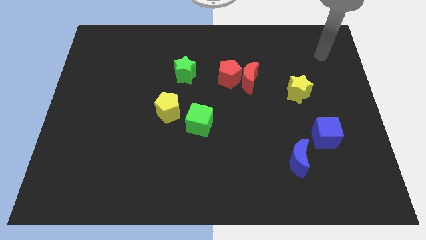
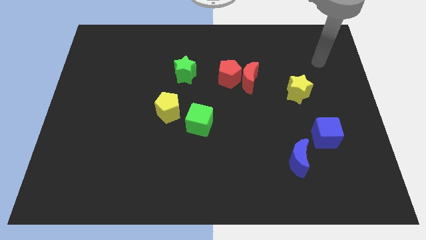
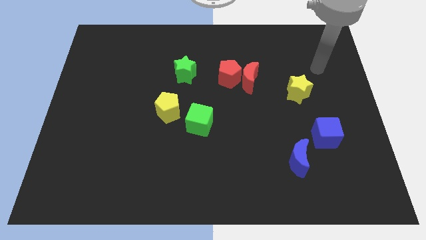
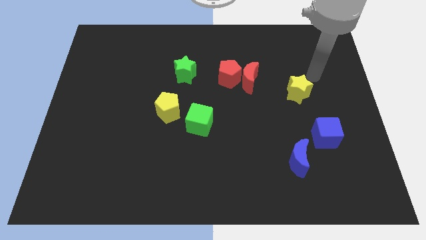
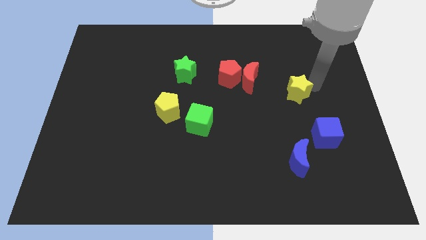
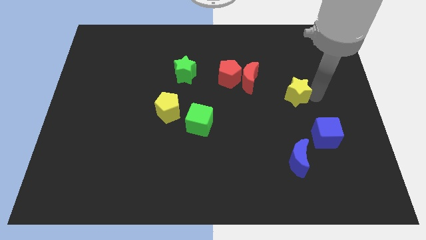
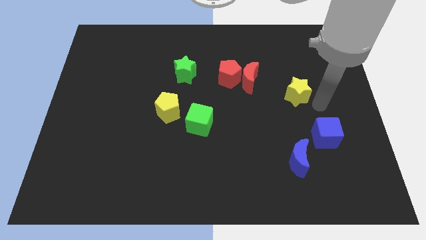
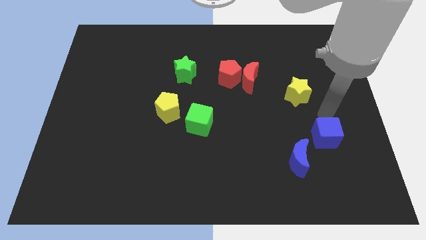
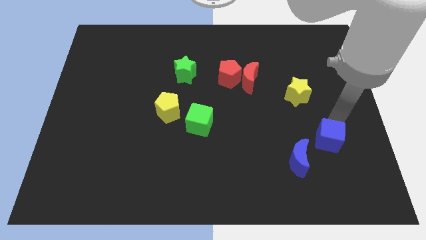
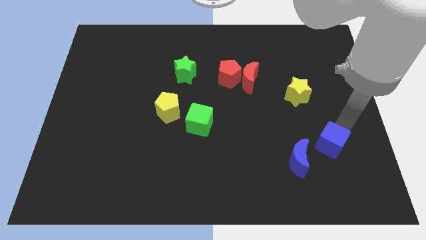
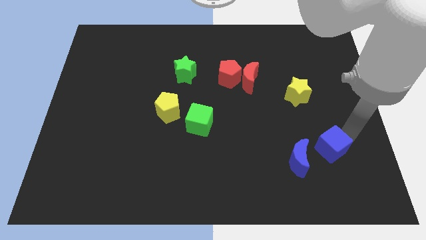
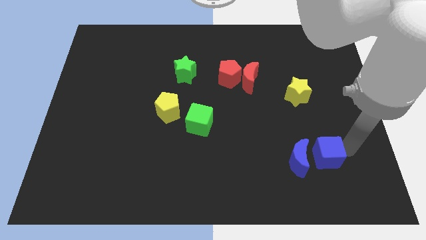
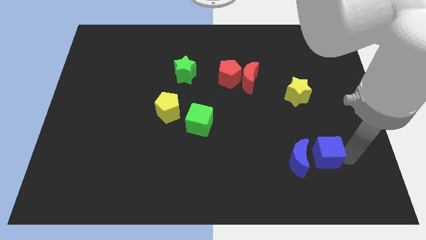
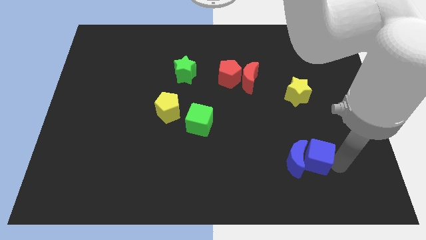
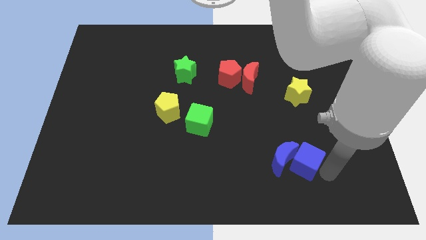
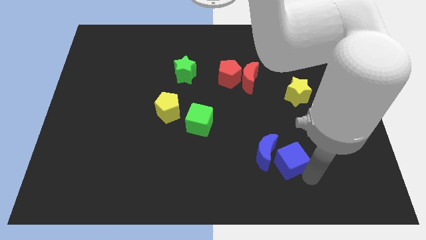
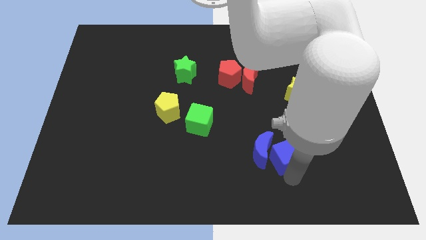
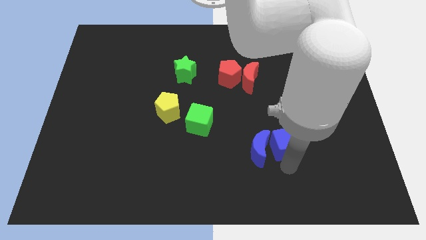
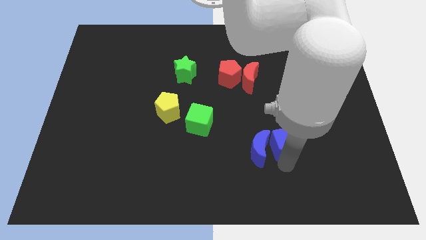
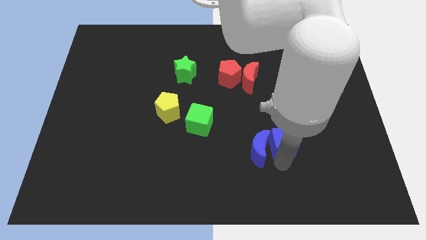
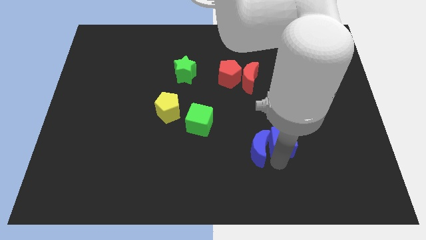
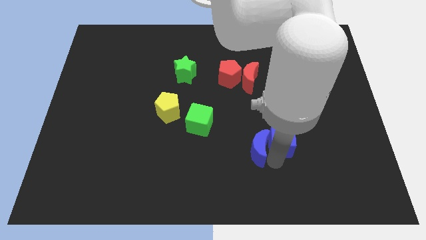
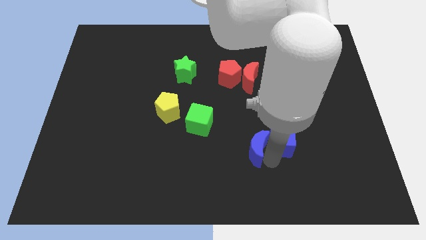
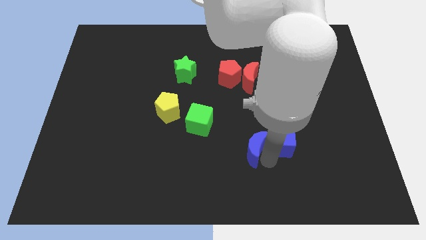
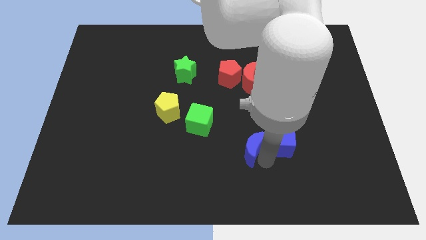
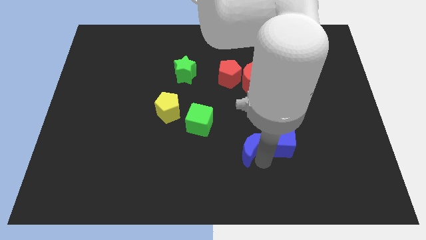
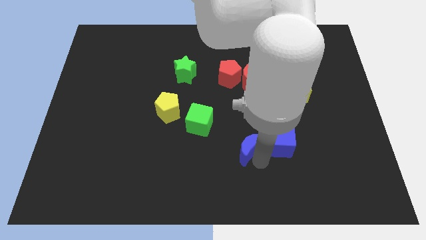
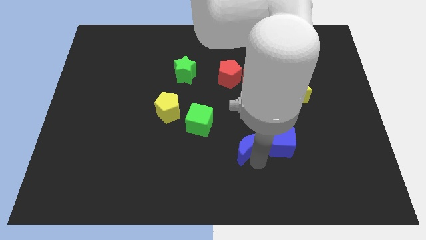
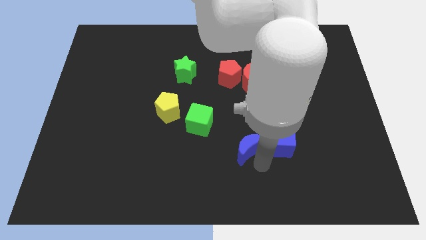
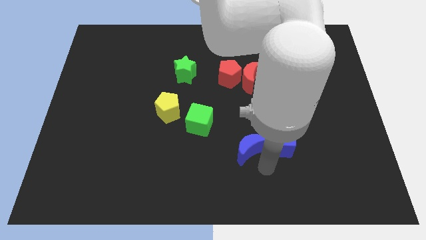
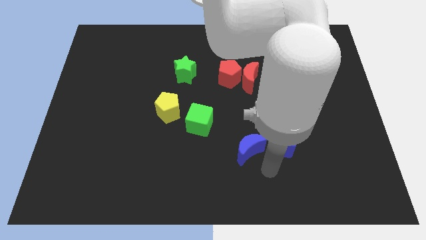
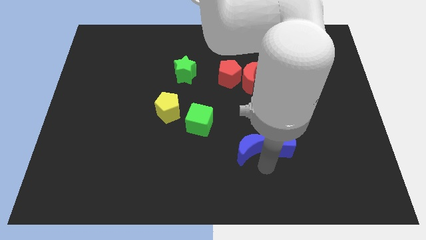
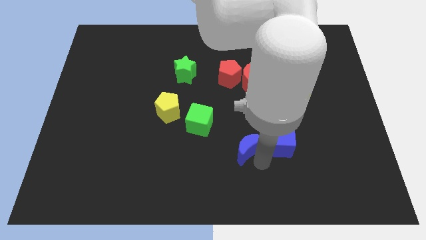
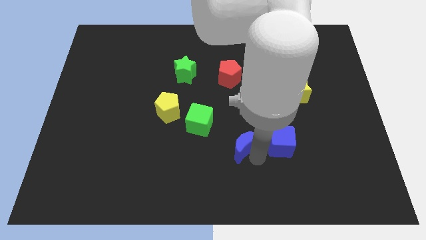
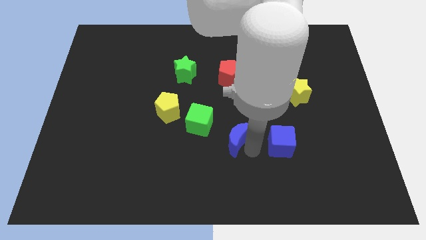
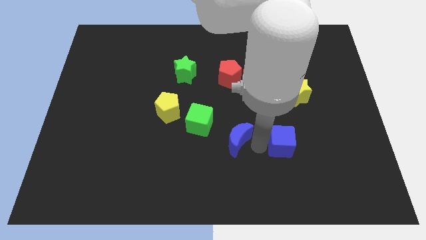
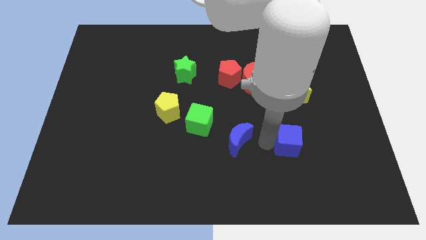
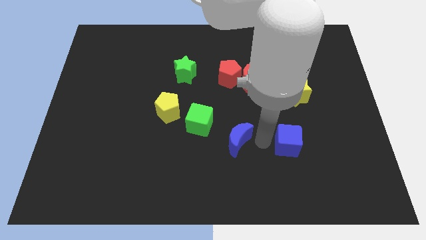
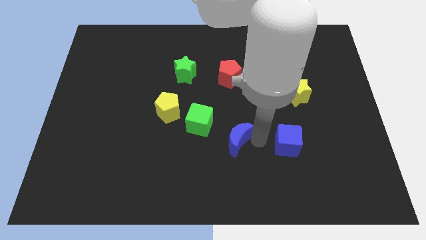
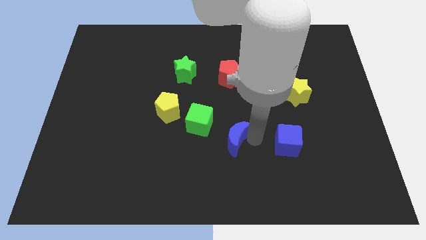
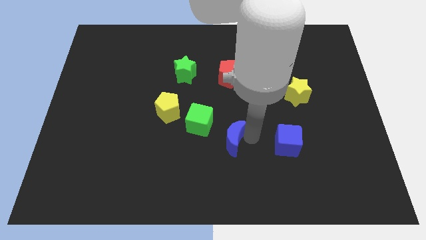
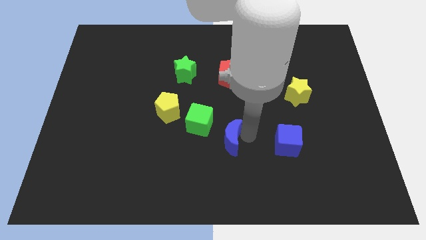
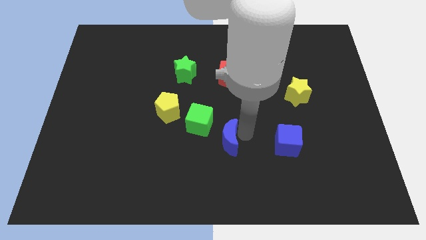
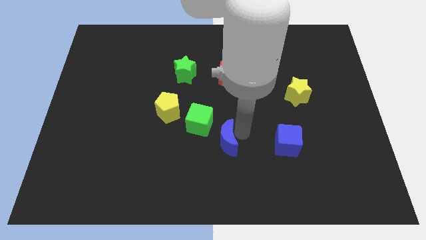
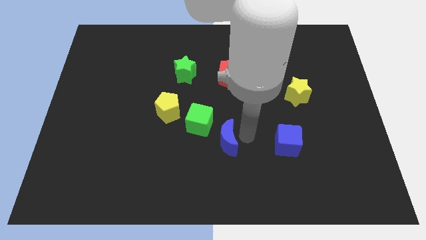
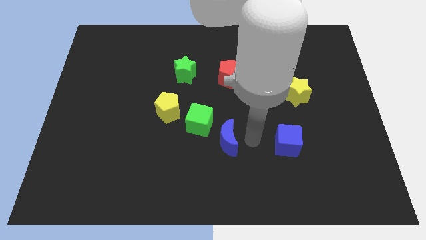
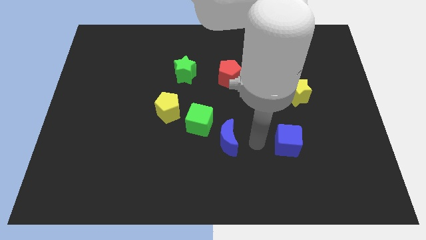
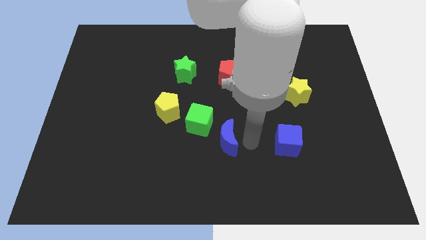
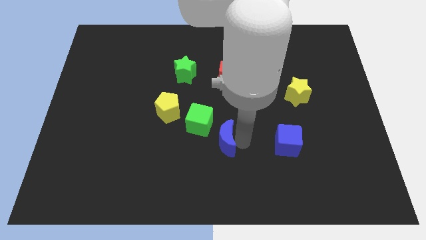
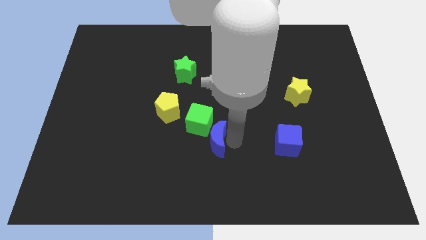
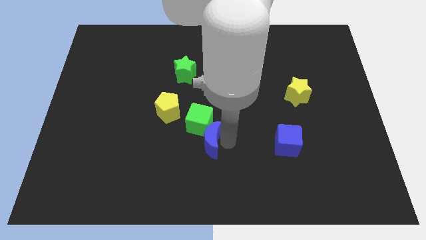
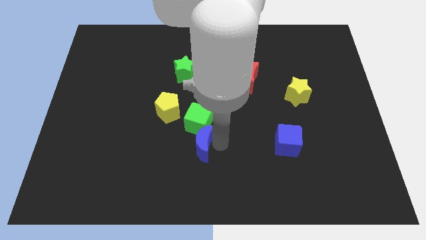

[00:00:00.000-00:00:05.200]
put the blue moon to the bottom right side of the yellow pentagon

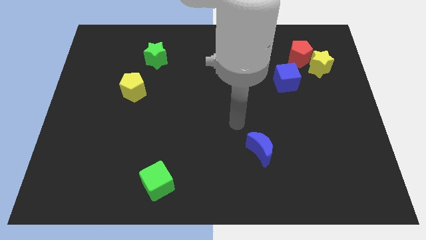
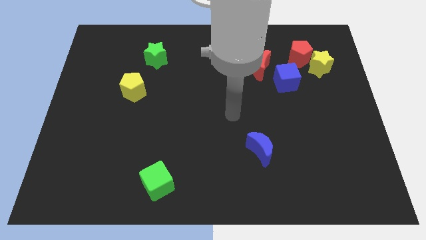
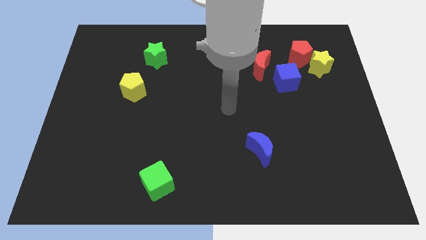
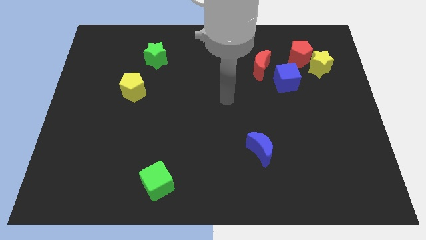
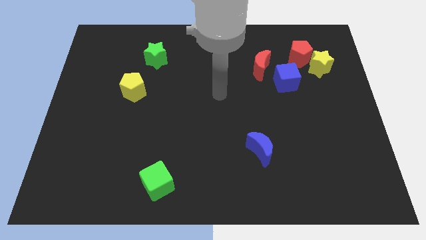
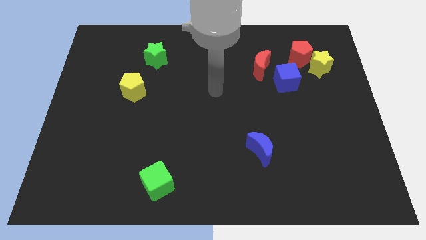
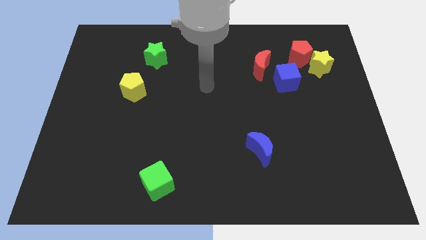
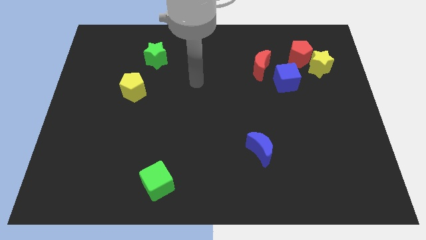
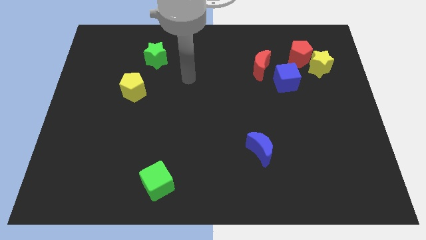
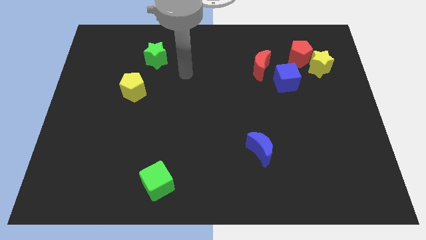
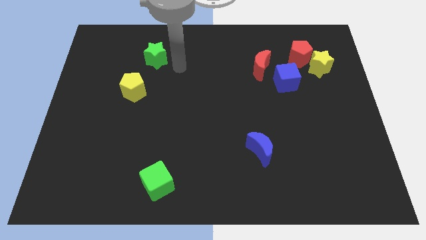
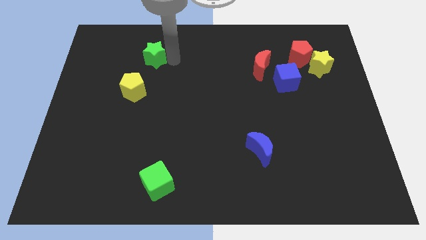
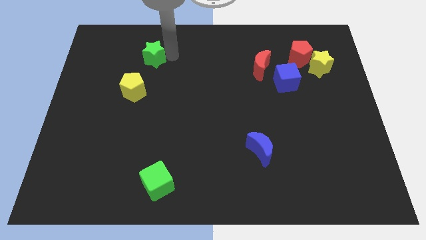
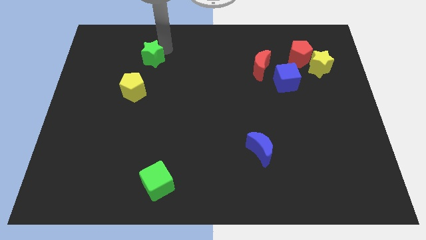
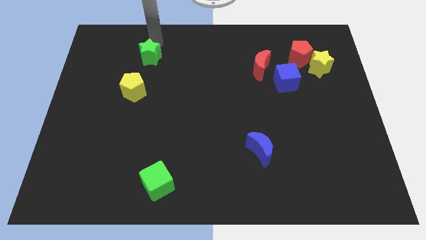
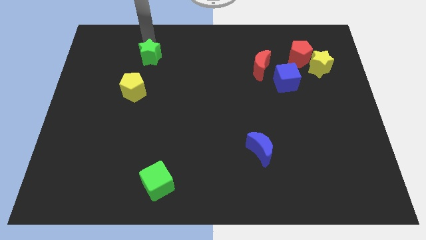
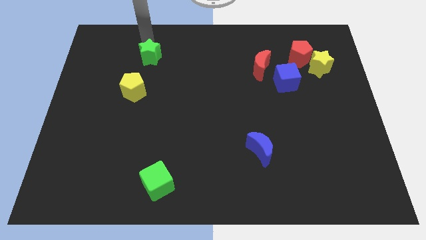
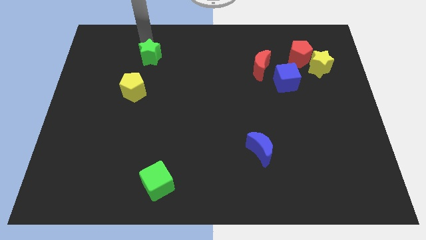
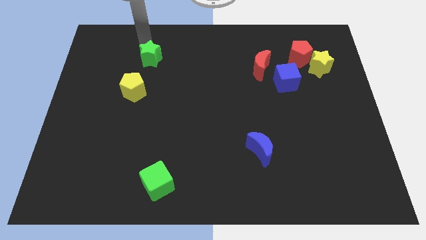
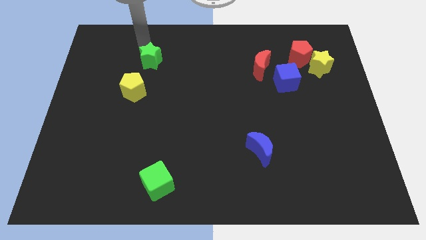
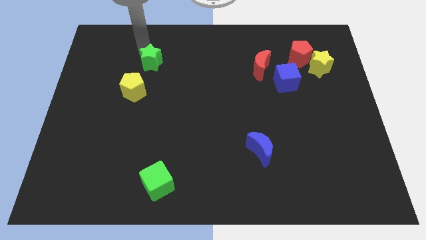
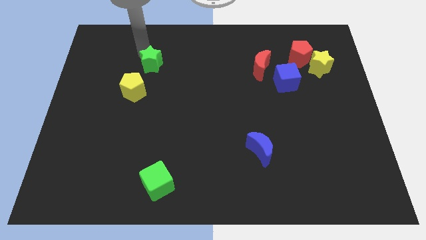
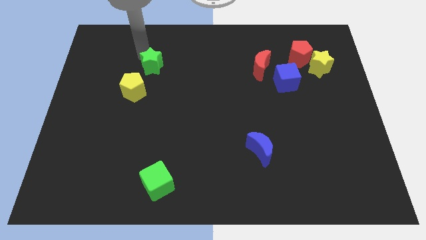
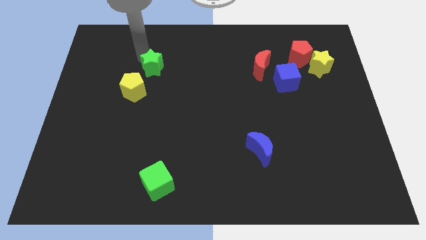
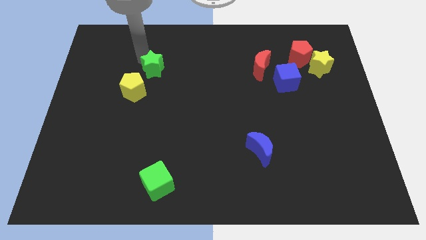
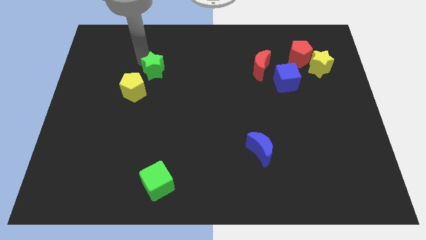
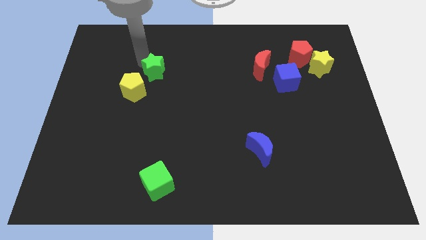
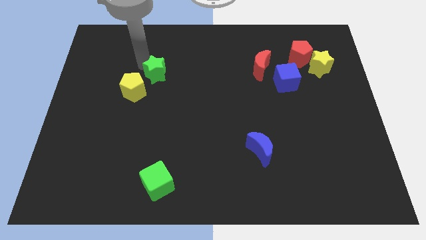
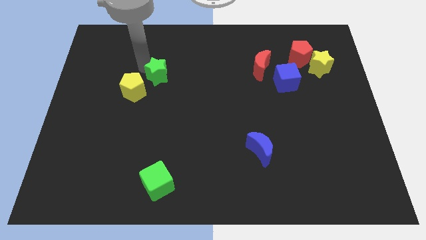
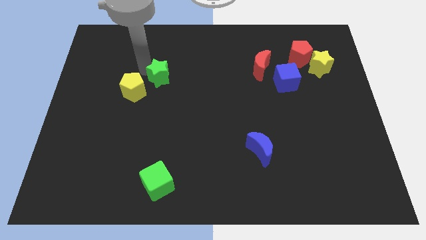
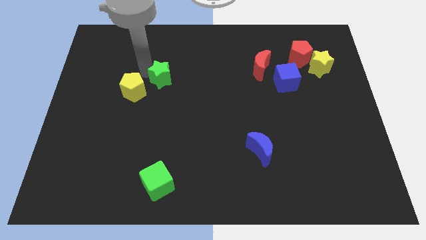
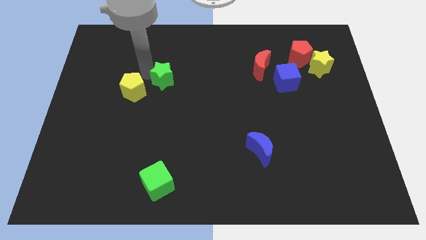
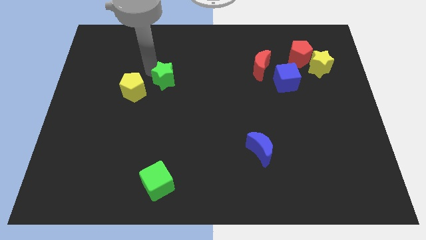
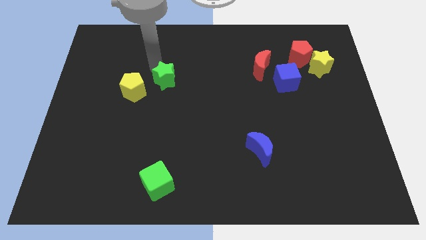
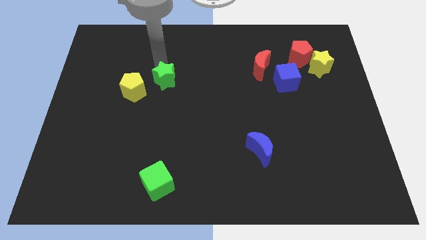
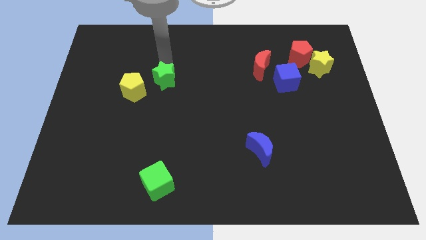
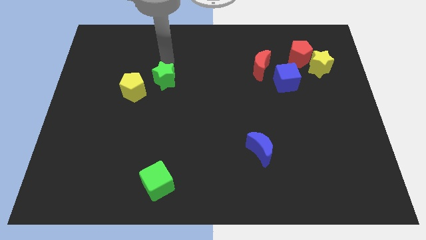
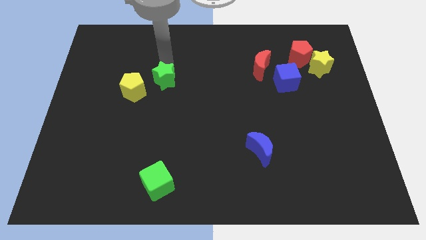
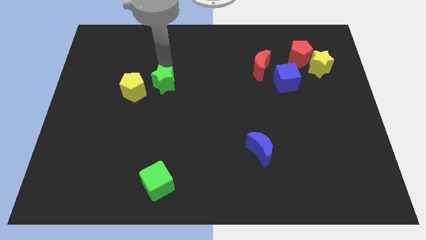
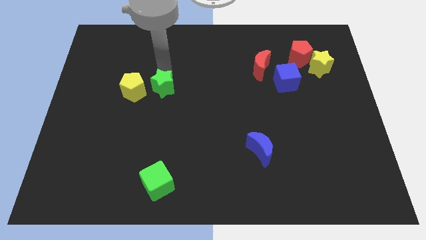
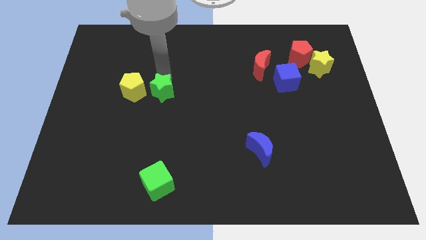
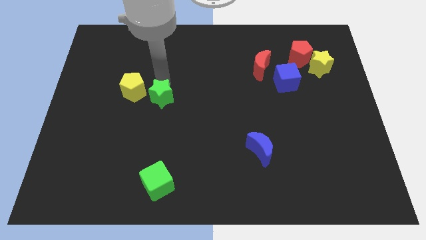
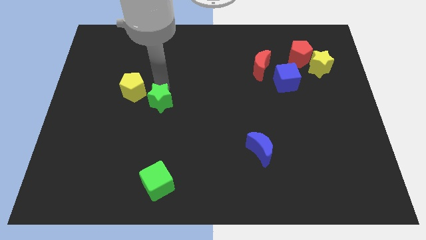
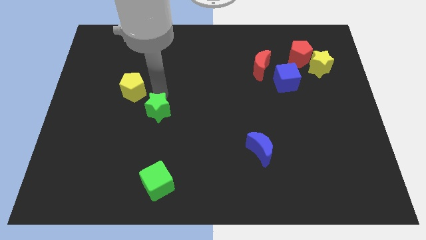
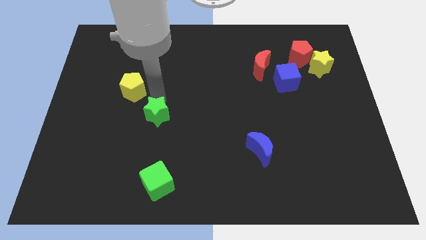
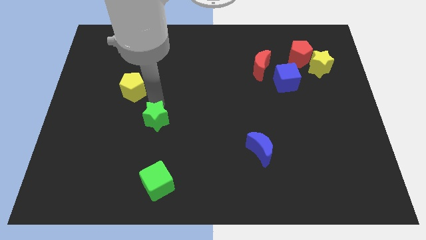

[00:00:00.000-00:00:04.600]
push the green star to the top of the green cube
